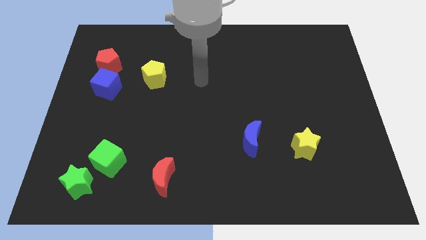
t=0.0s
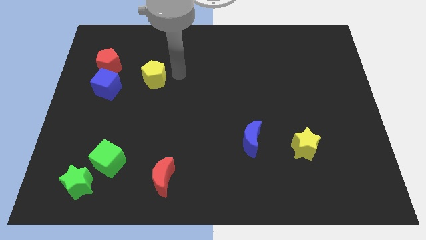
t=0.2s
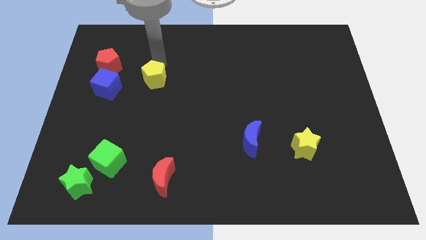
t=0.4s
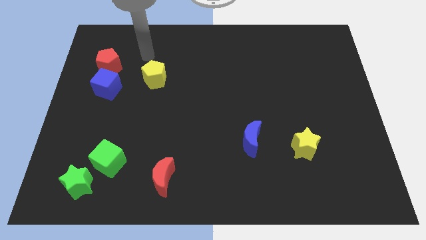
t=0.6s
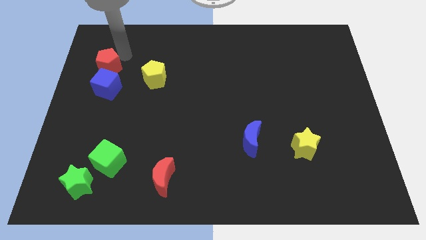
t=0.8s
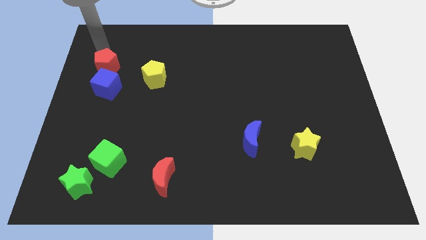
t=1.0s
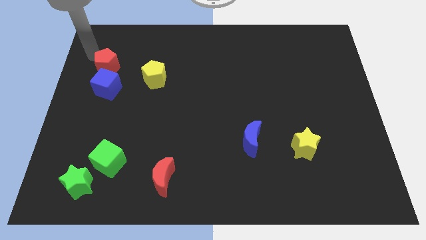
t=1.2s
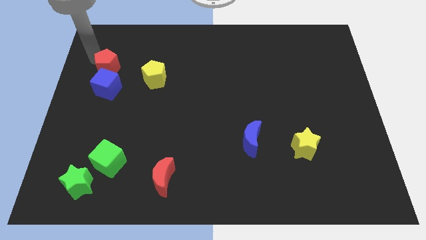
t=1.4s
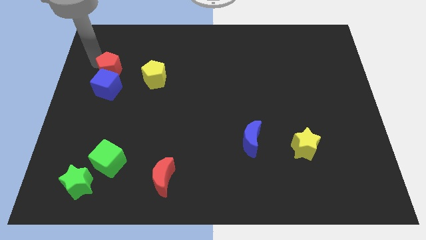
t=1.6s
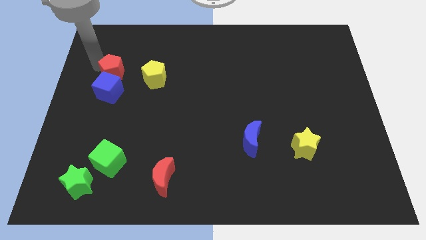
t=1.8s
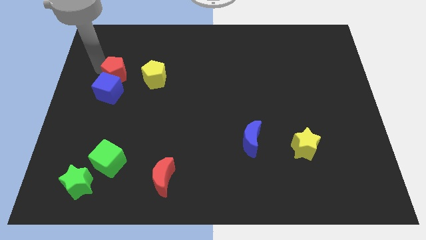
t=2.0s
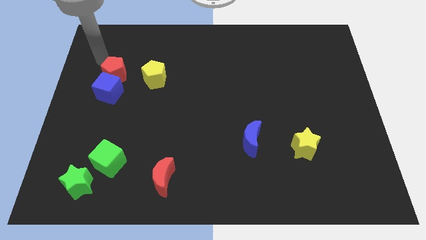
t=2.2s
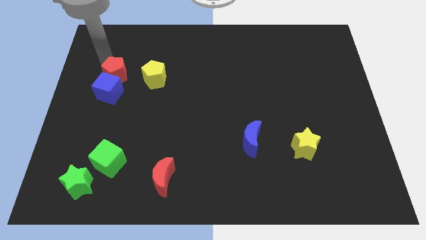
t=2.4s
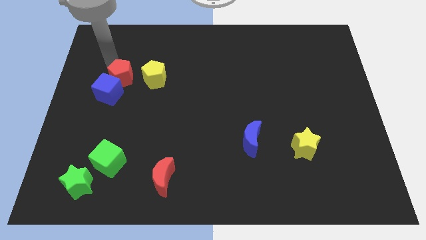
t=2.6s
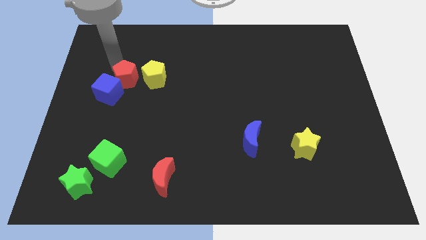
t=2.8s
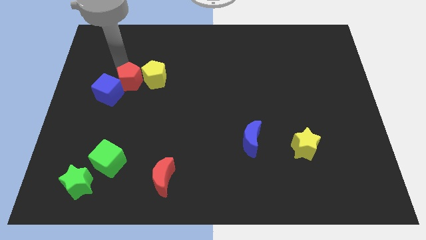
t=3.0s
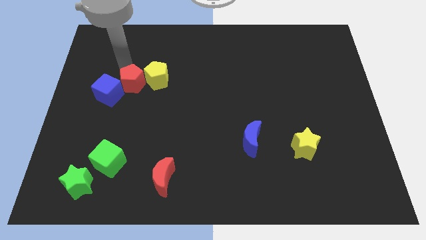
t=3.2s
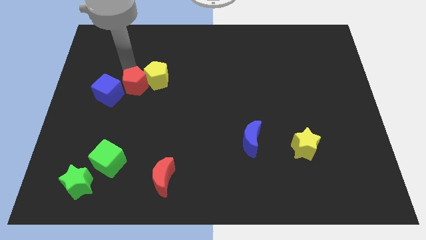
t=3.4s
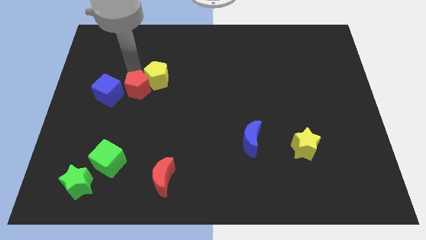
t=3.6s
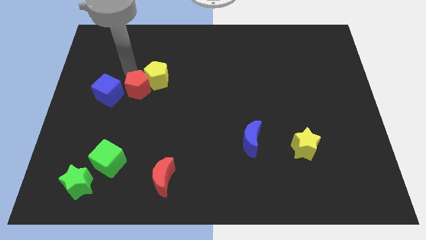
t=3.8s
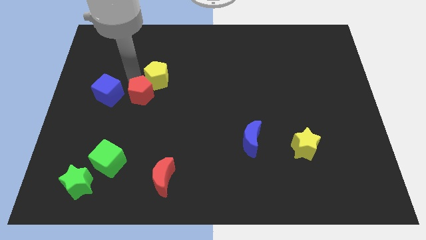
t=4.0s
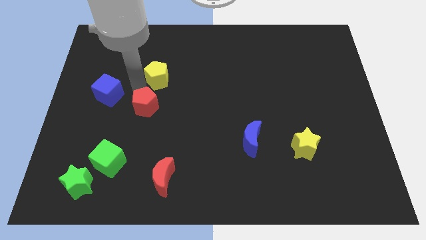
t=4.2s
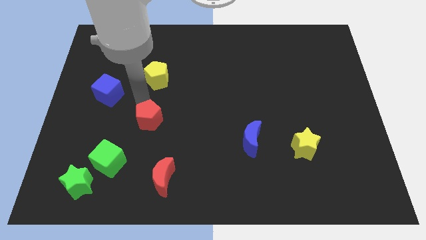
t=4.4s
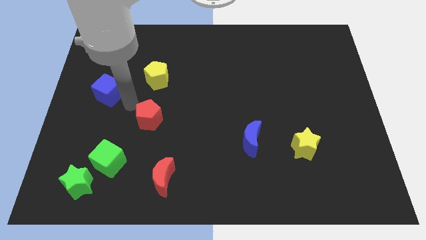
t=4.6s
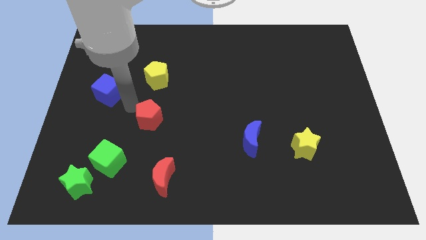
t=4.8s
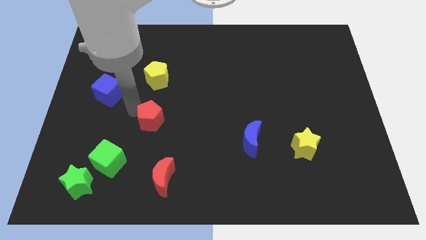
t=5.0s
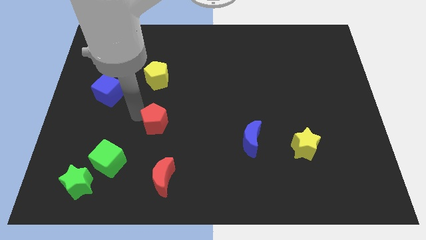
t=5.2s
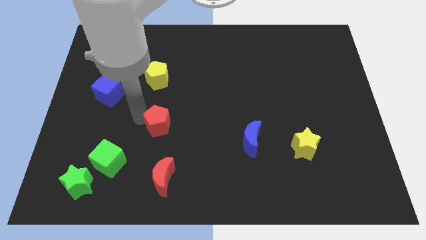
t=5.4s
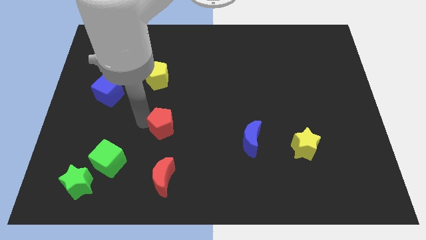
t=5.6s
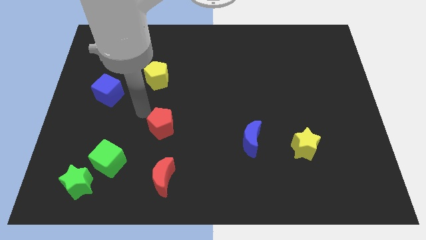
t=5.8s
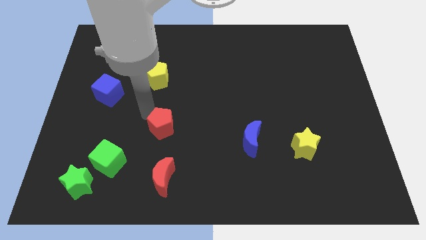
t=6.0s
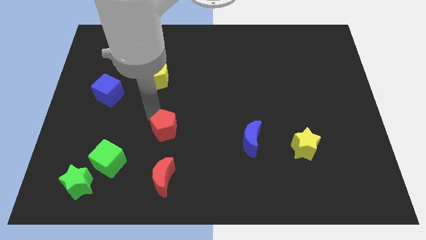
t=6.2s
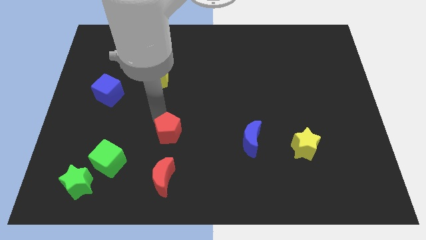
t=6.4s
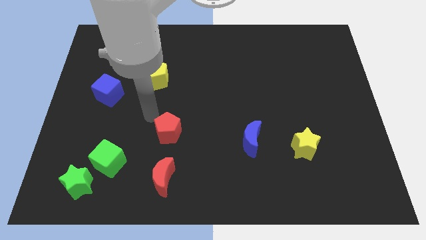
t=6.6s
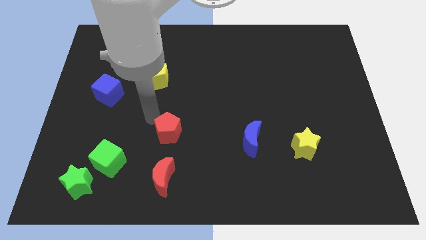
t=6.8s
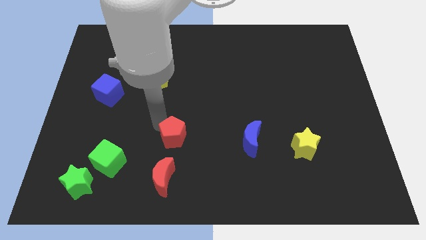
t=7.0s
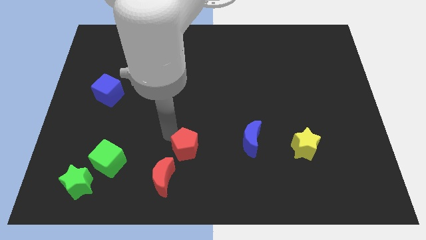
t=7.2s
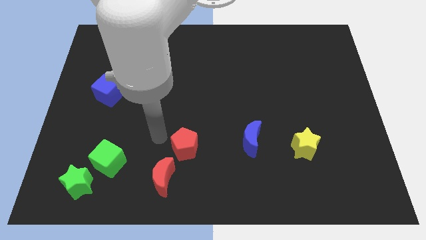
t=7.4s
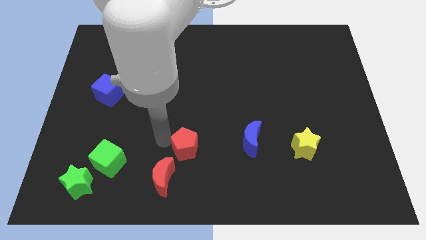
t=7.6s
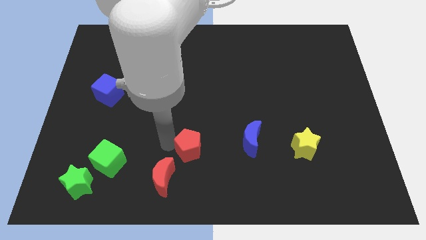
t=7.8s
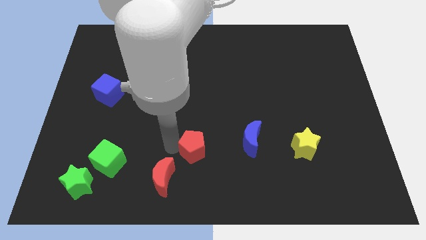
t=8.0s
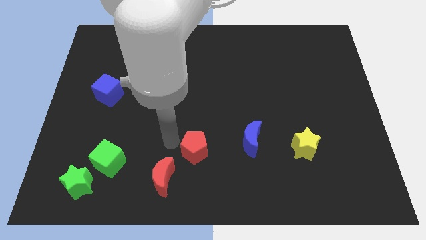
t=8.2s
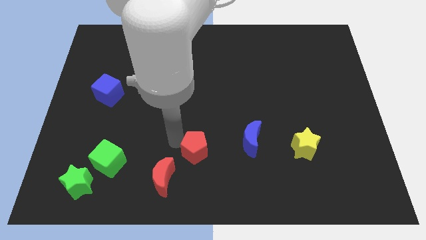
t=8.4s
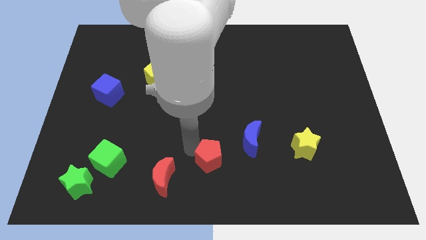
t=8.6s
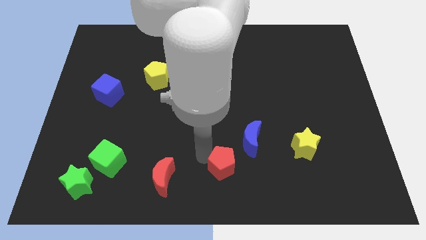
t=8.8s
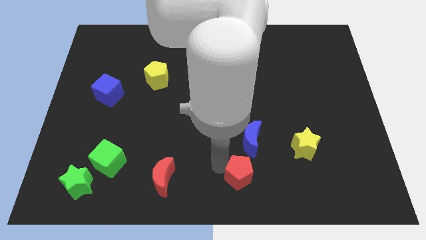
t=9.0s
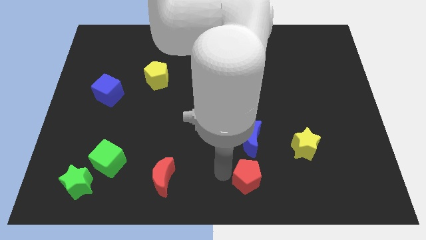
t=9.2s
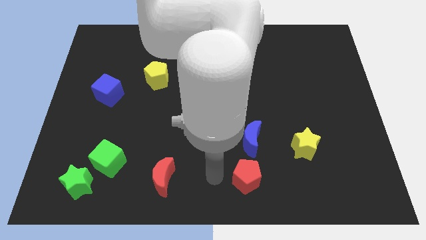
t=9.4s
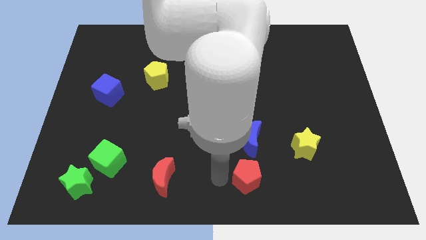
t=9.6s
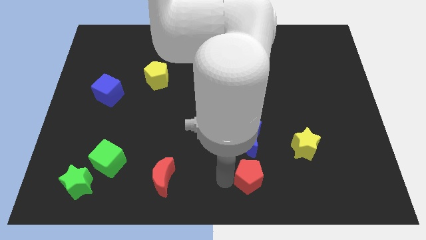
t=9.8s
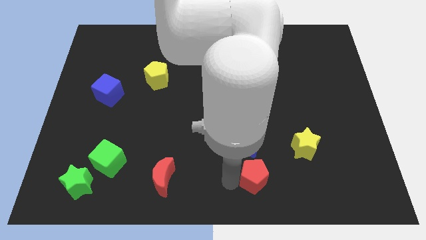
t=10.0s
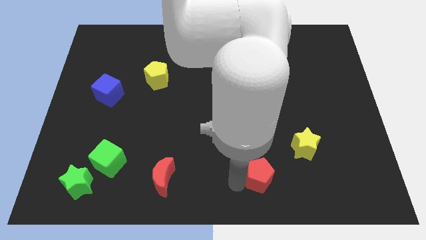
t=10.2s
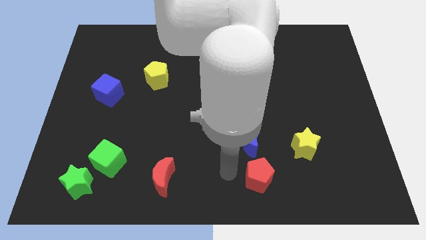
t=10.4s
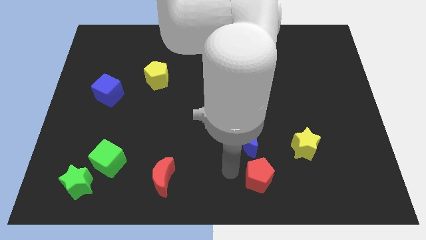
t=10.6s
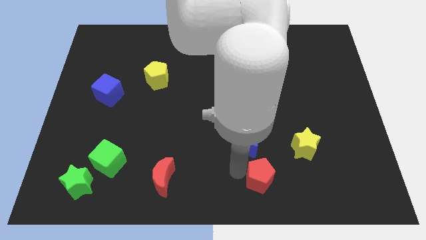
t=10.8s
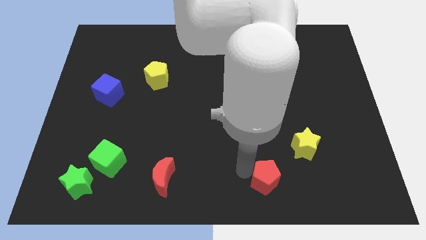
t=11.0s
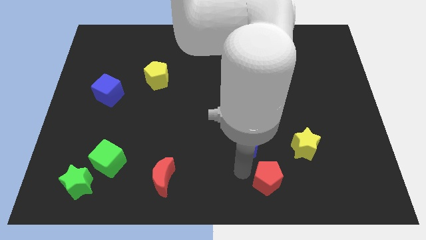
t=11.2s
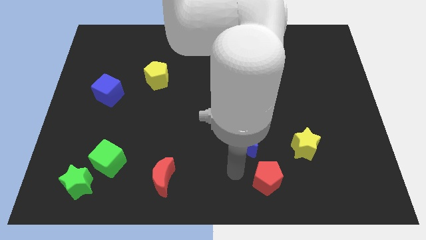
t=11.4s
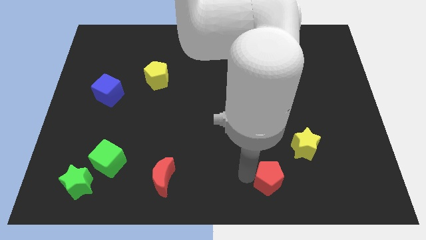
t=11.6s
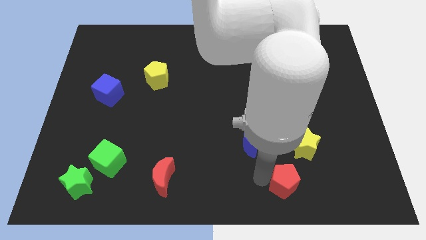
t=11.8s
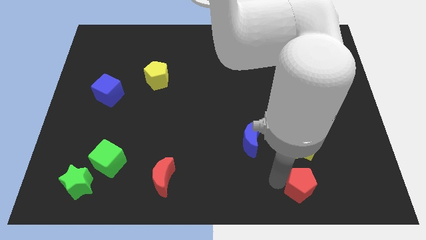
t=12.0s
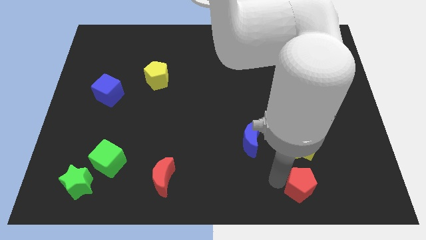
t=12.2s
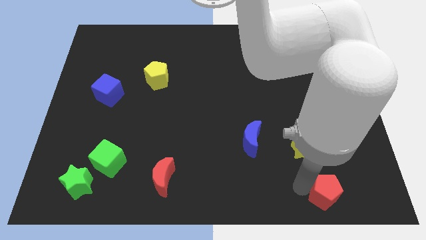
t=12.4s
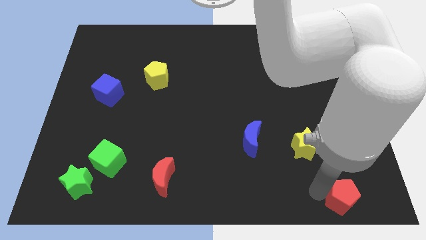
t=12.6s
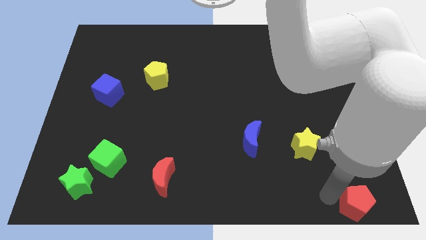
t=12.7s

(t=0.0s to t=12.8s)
put the red pentagon to the bottom right corner

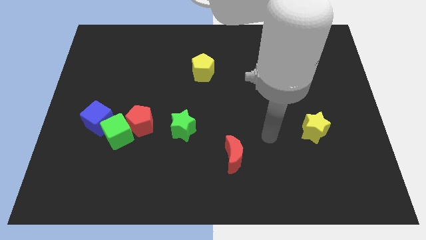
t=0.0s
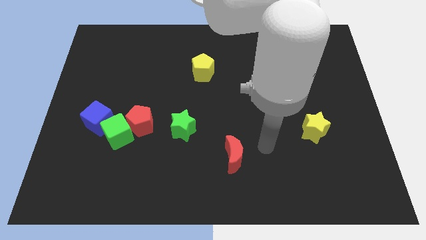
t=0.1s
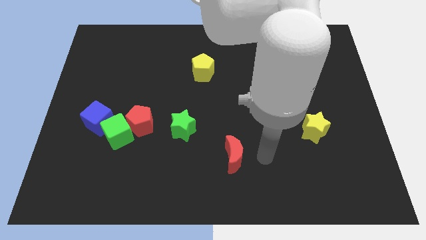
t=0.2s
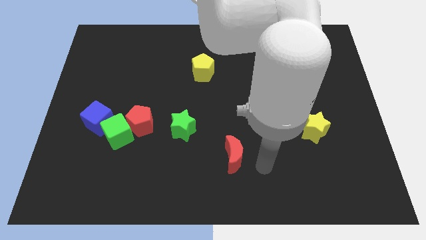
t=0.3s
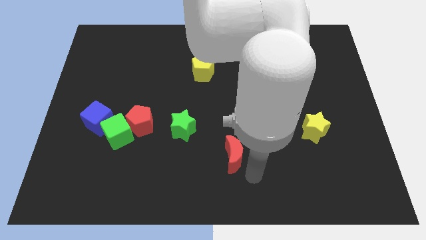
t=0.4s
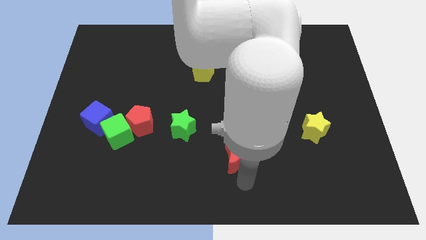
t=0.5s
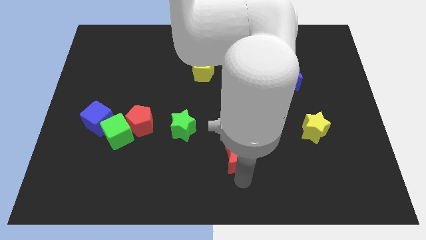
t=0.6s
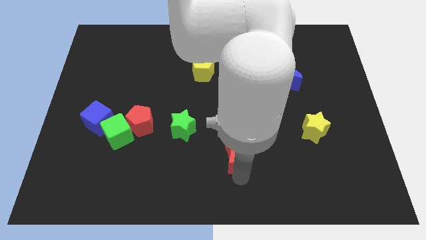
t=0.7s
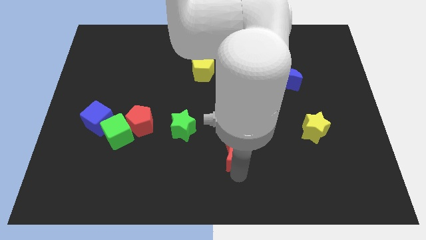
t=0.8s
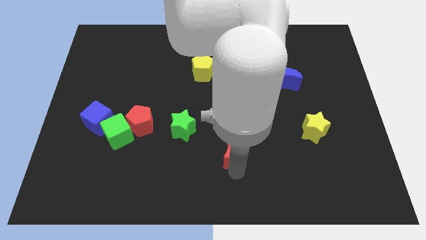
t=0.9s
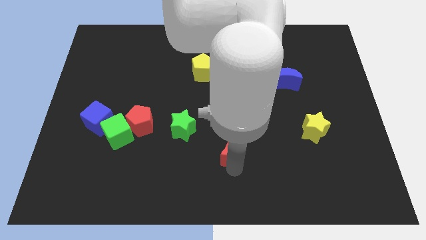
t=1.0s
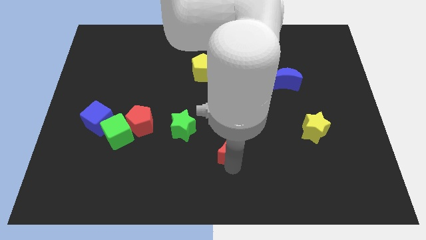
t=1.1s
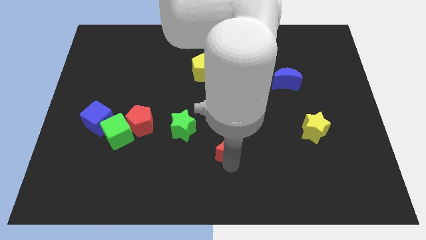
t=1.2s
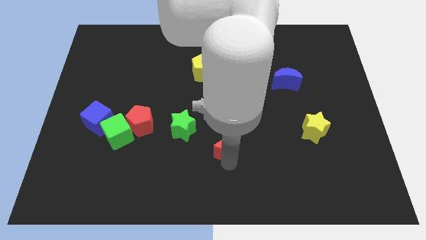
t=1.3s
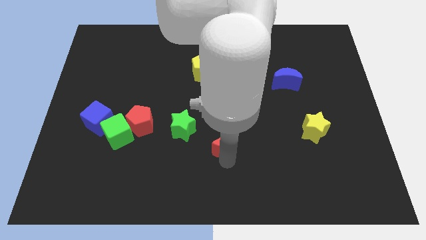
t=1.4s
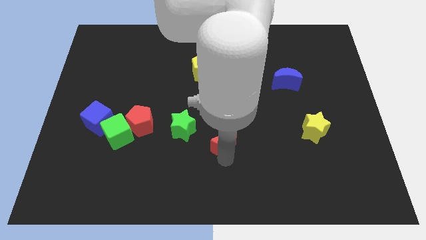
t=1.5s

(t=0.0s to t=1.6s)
push the red moon to the middle
